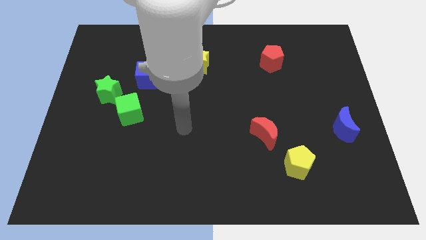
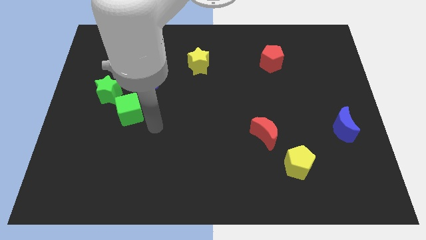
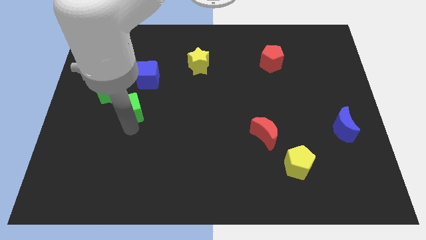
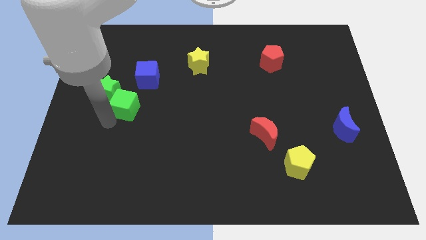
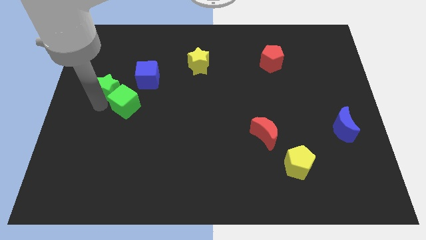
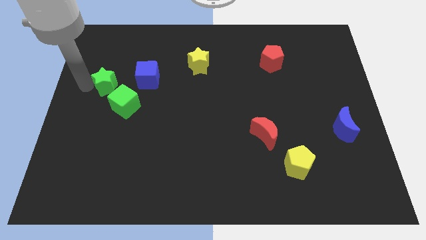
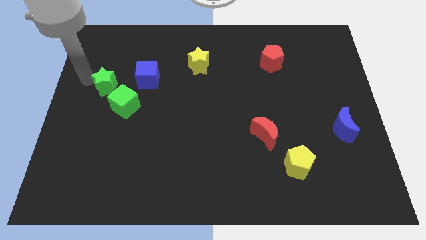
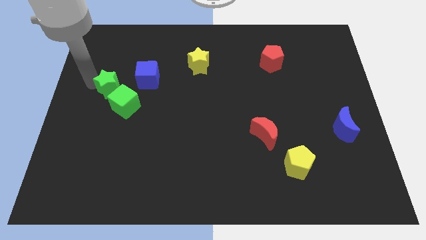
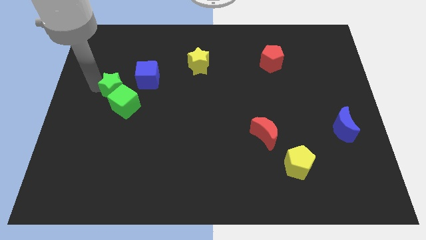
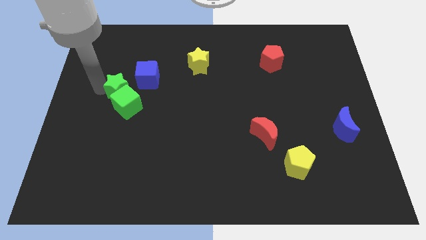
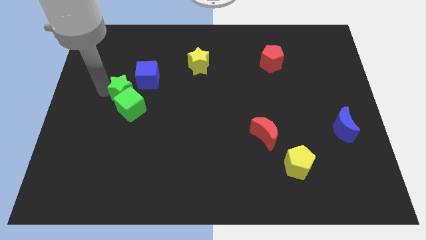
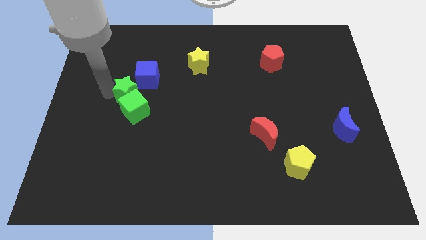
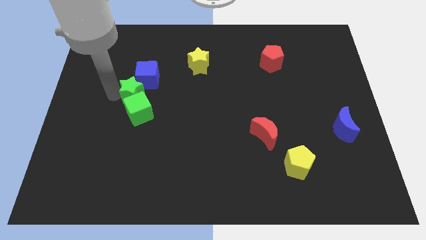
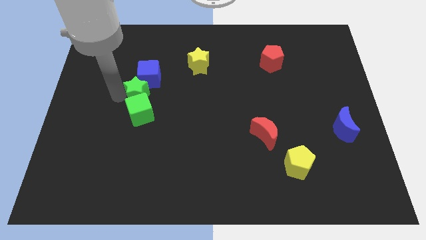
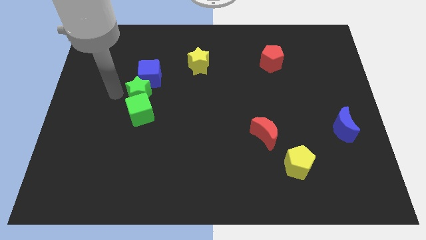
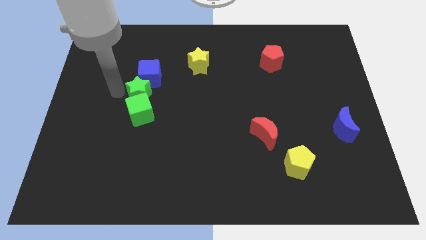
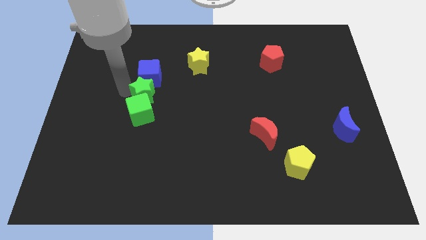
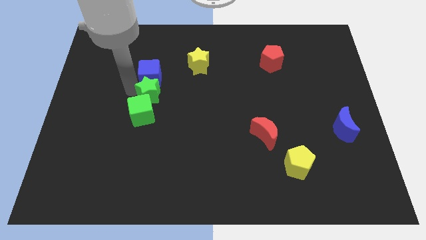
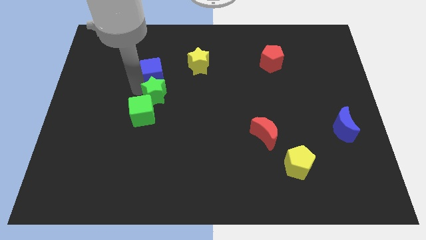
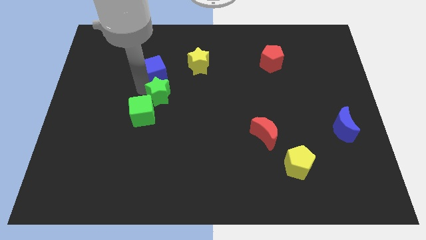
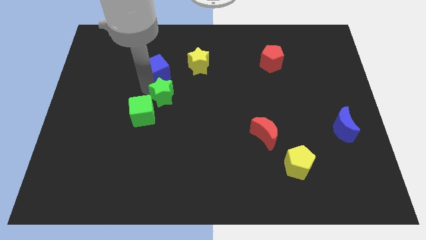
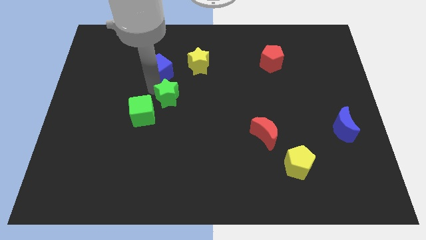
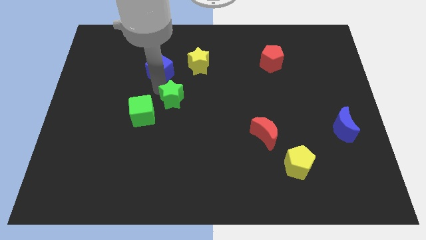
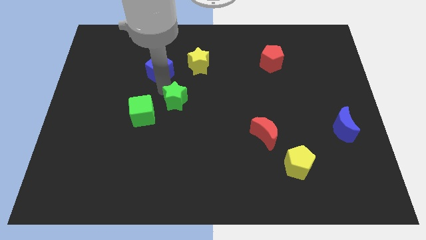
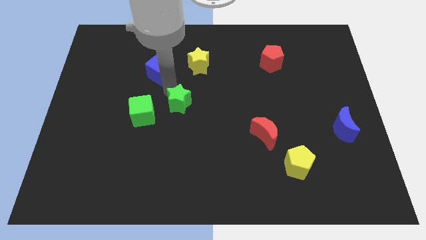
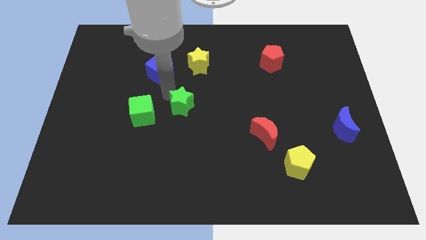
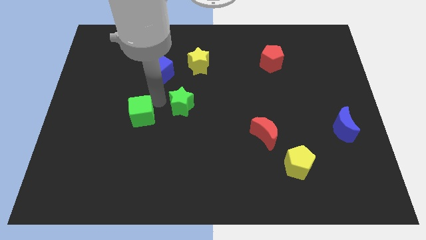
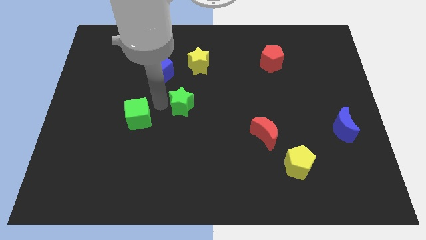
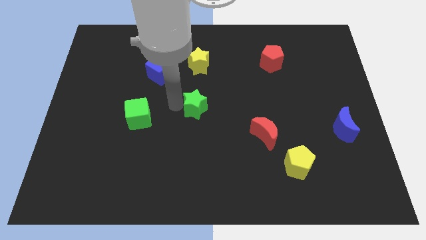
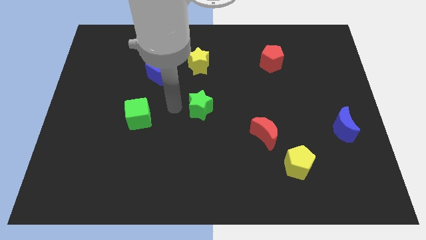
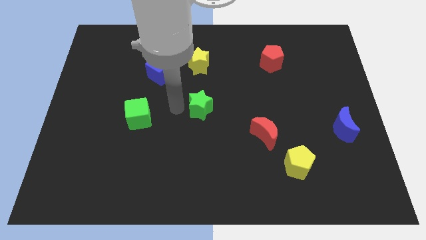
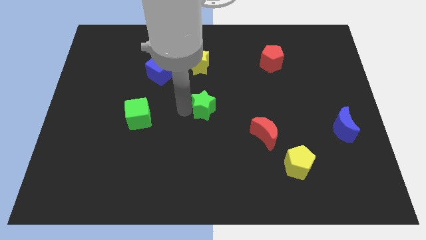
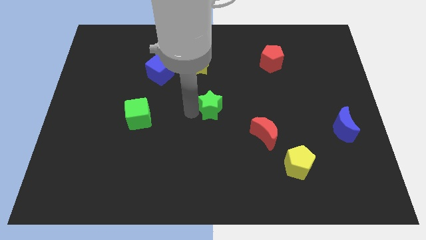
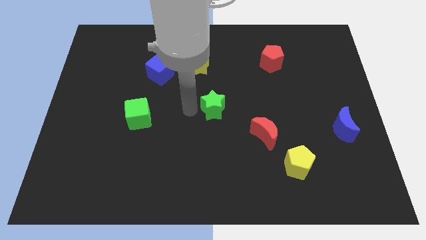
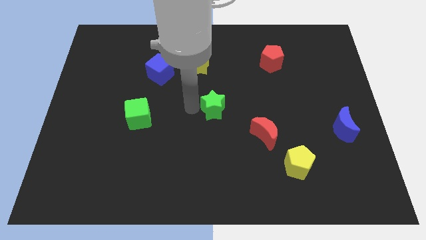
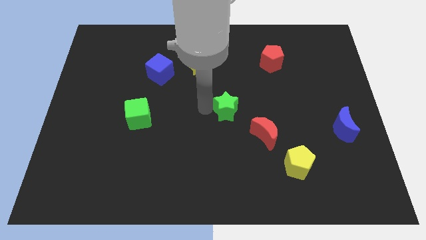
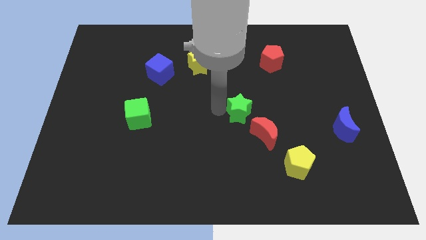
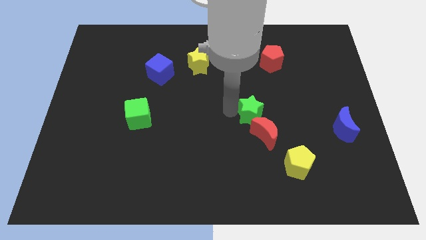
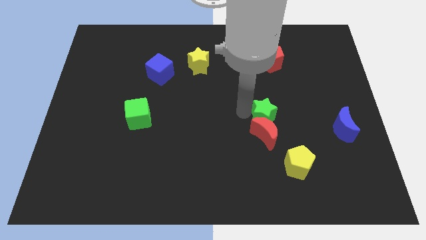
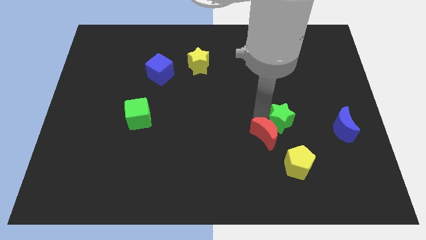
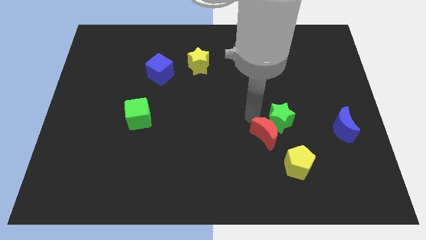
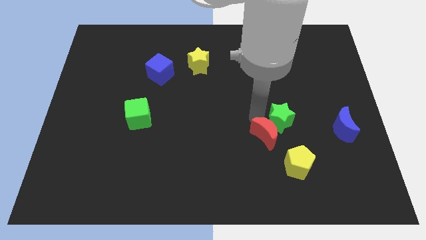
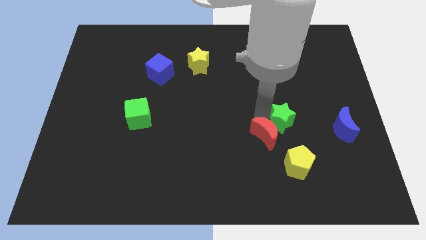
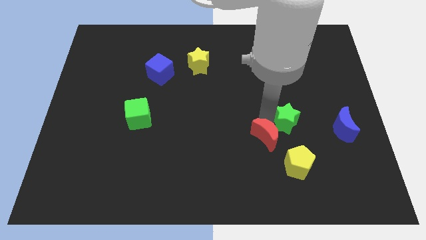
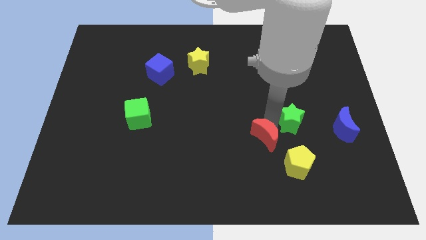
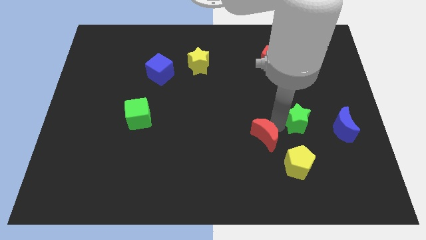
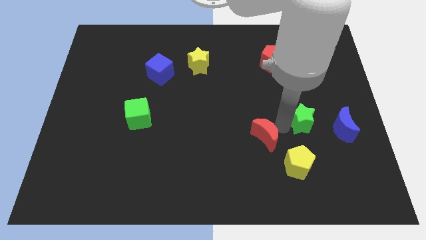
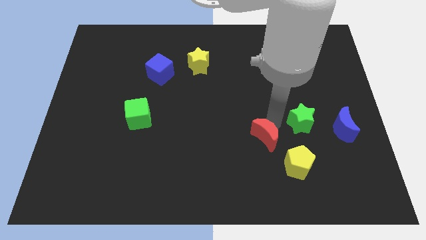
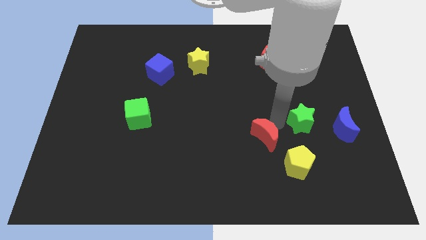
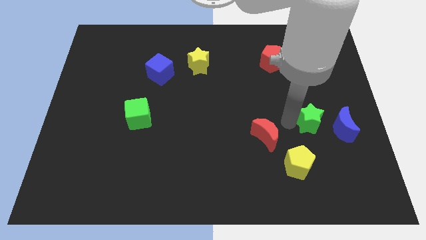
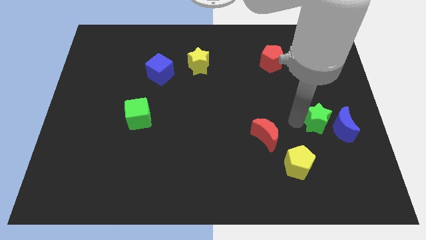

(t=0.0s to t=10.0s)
move the green star towards the blue moon

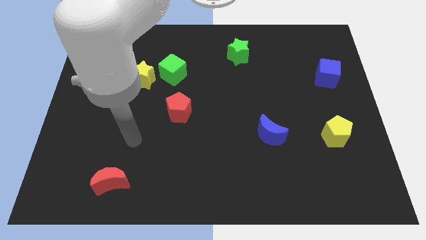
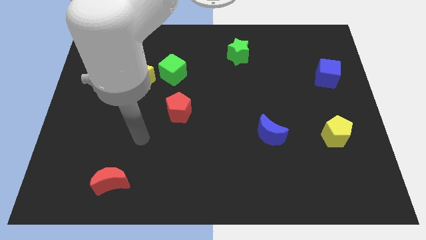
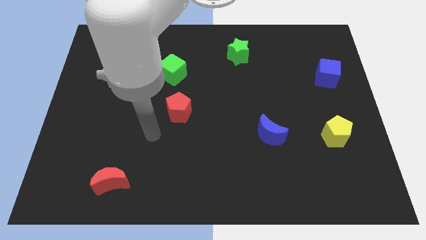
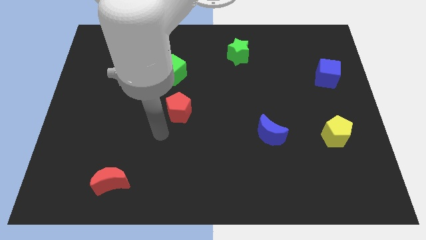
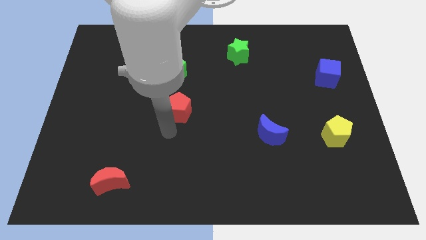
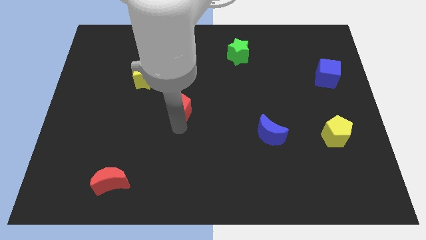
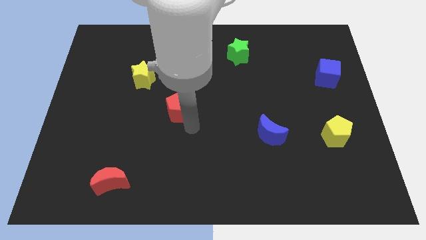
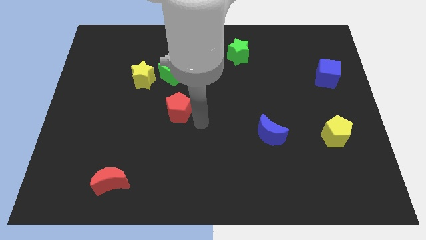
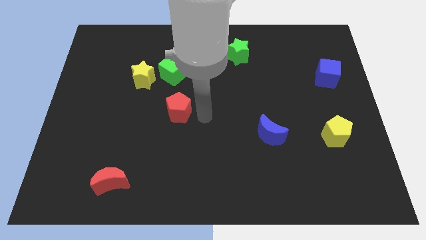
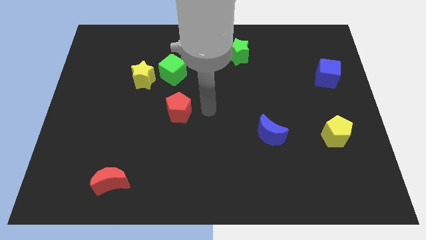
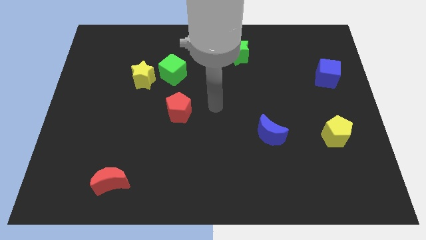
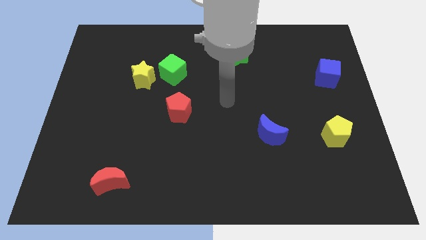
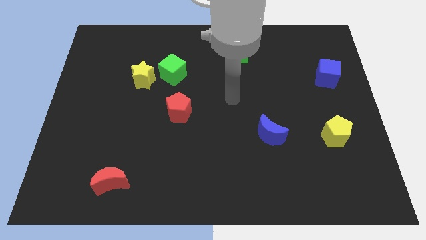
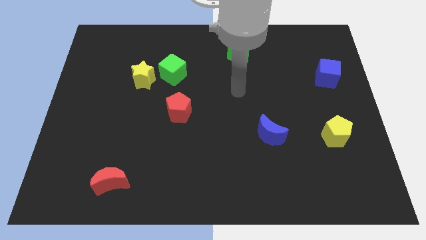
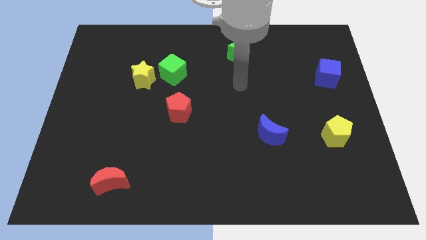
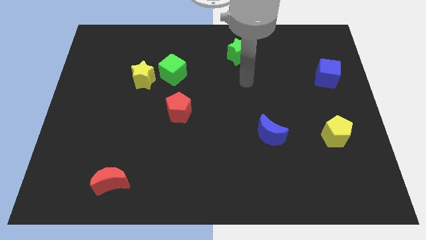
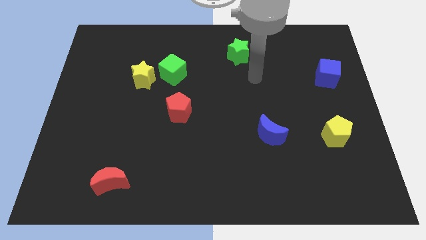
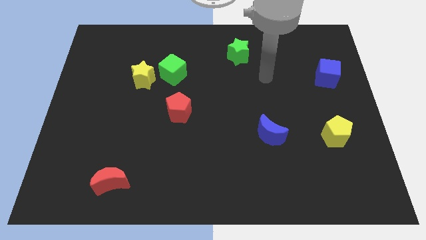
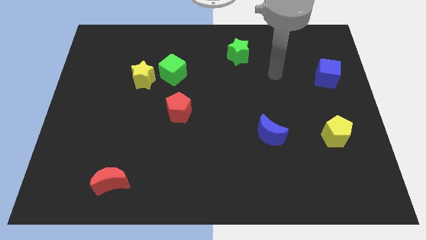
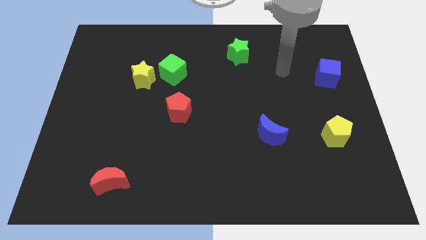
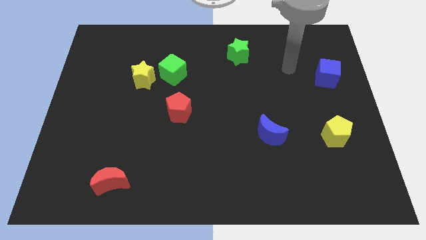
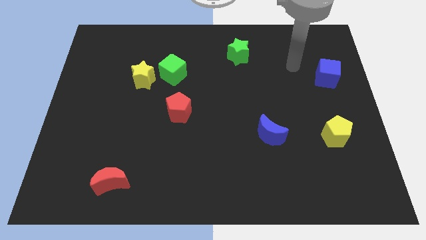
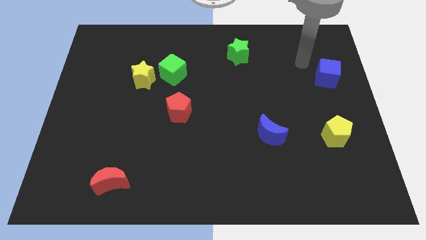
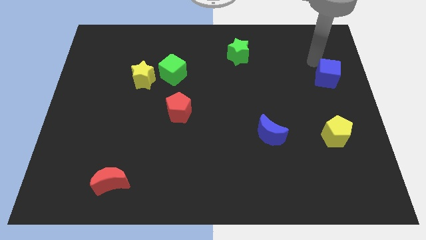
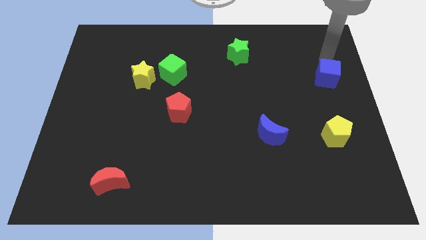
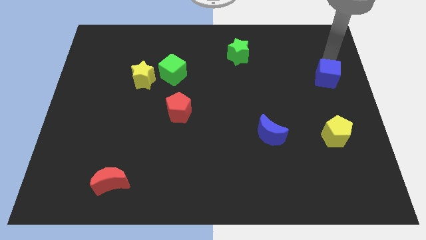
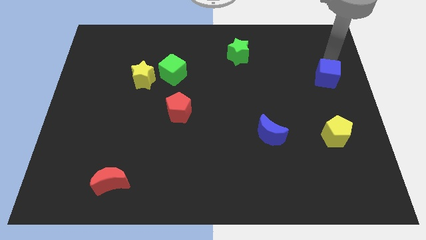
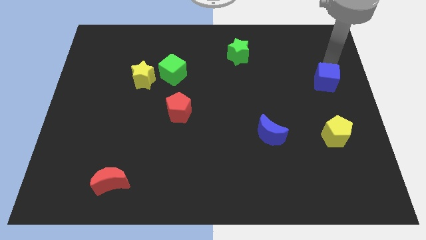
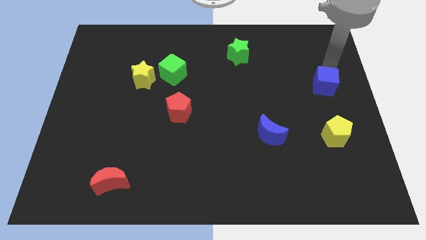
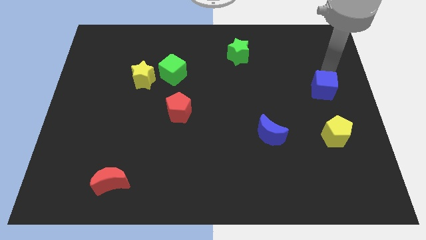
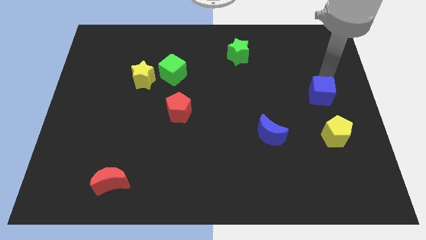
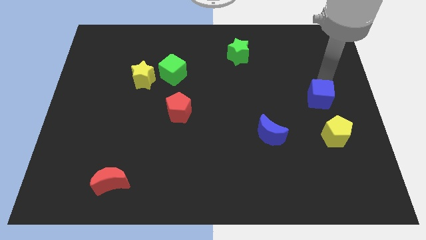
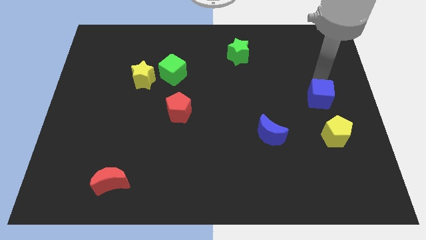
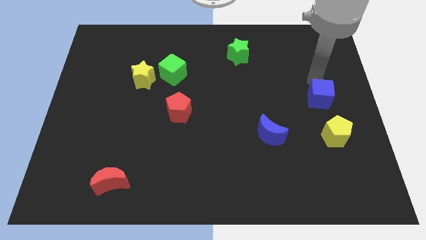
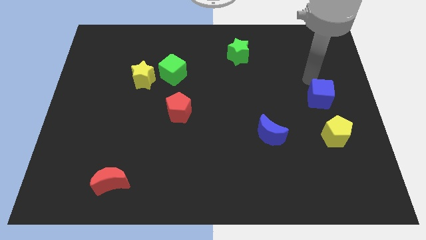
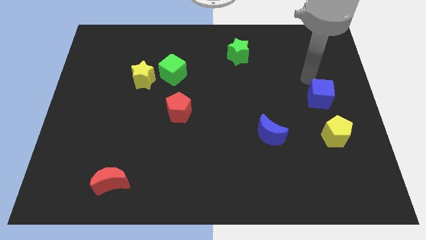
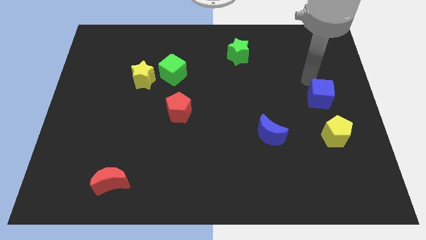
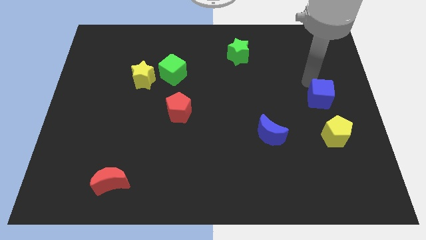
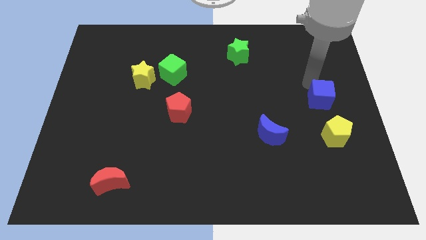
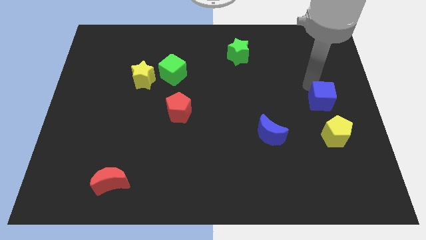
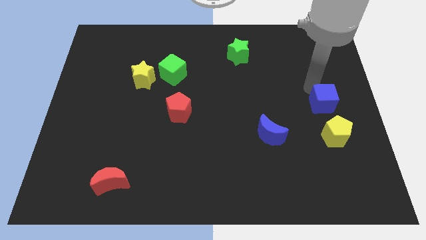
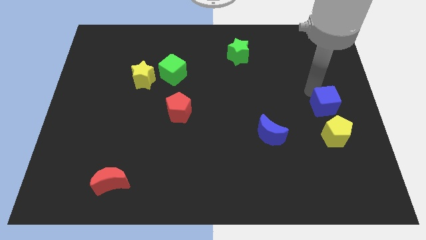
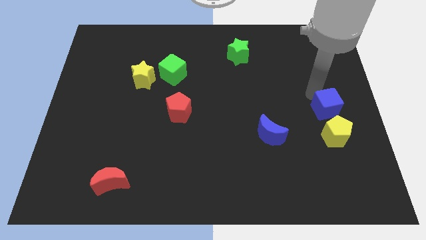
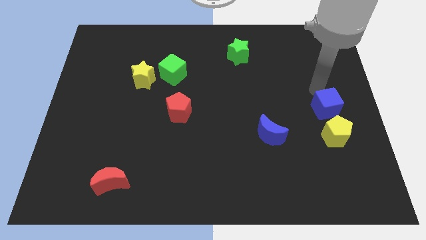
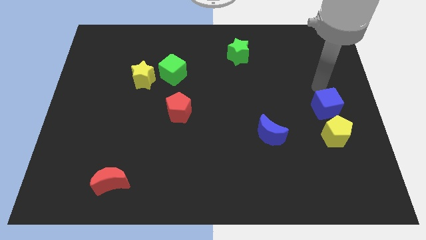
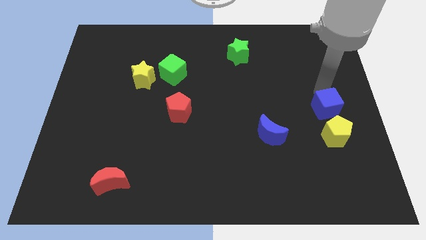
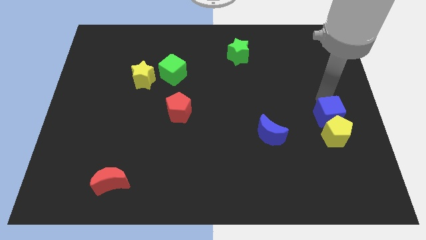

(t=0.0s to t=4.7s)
slide the blue cube next to the yellow pentagon
